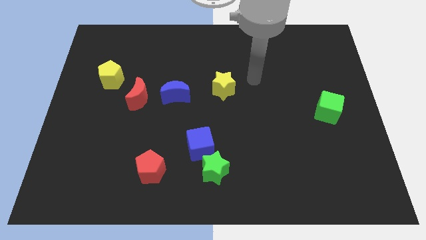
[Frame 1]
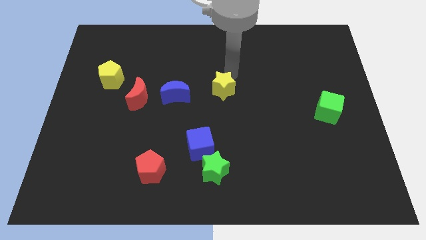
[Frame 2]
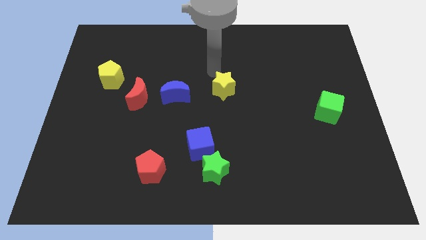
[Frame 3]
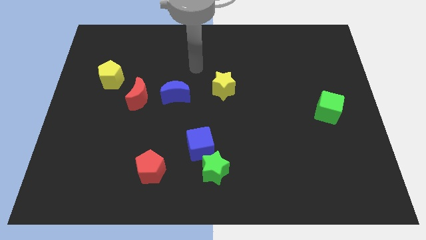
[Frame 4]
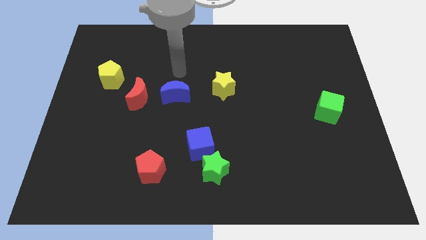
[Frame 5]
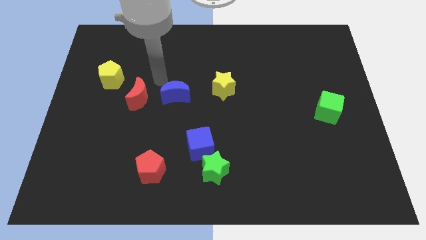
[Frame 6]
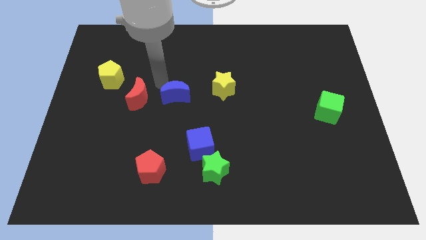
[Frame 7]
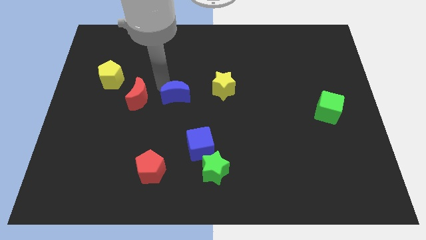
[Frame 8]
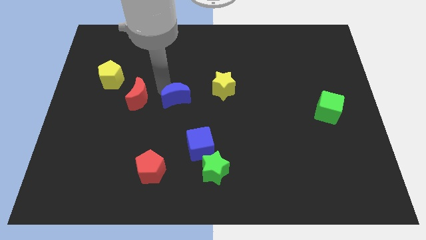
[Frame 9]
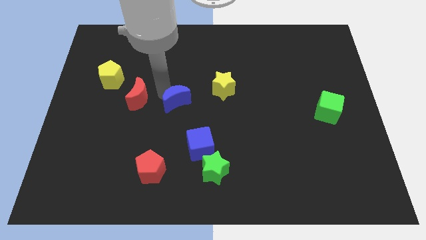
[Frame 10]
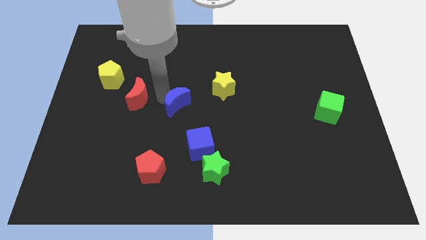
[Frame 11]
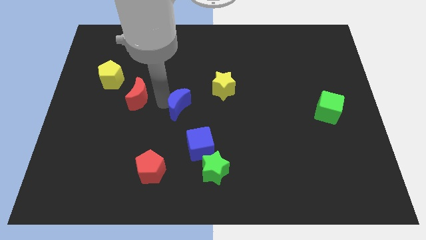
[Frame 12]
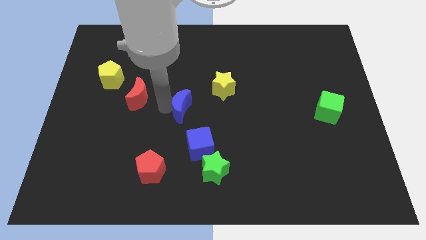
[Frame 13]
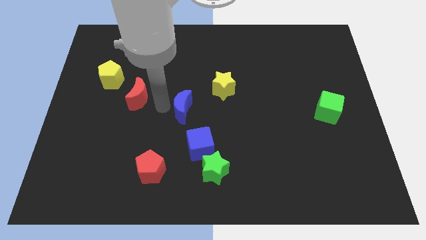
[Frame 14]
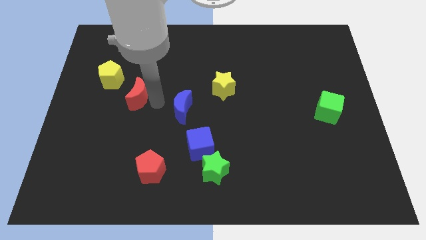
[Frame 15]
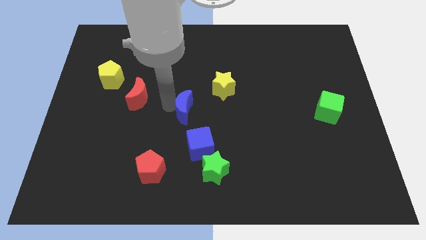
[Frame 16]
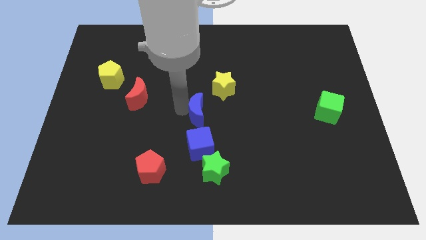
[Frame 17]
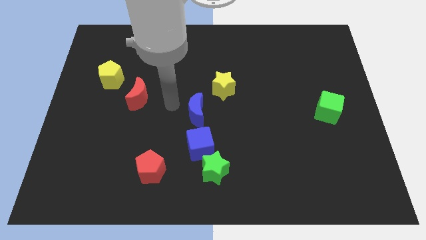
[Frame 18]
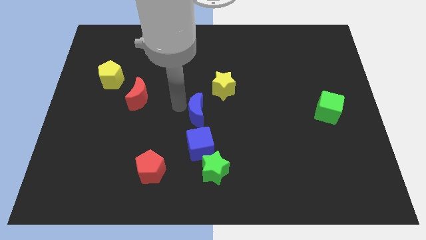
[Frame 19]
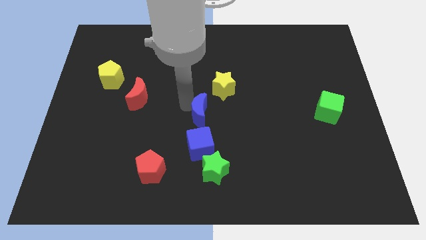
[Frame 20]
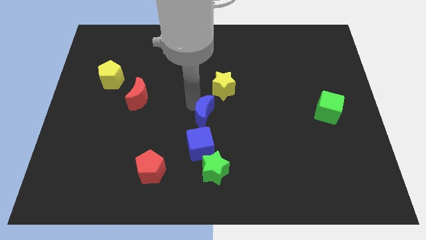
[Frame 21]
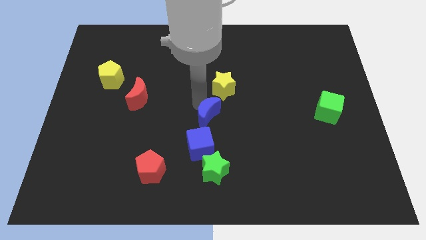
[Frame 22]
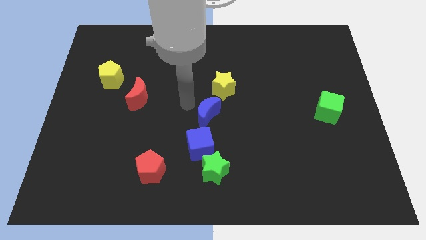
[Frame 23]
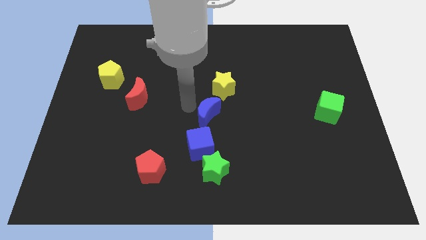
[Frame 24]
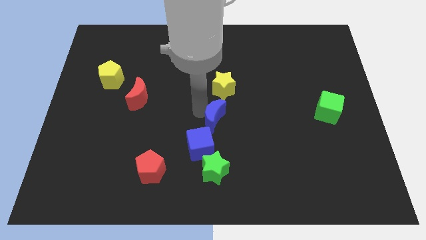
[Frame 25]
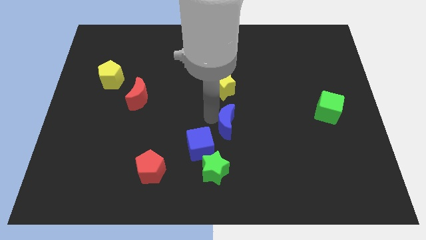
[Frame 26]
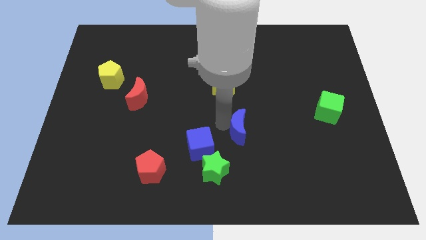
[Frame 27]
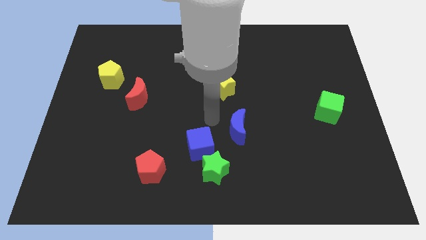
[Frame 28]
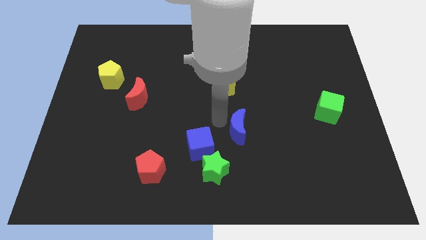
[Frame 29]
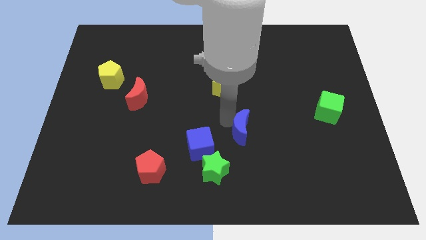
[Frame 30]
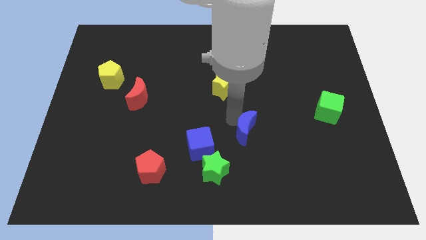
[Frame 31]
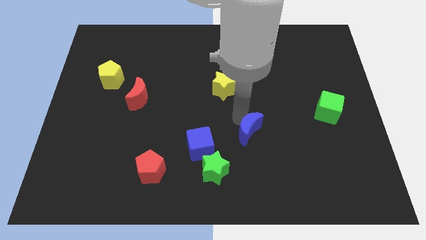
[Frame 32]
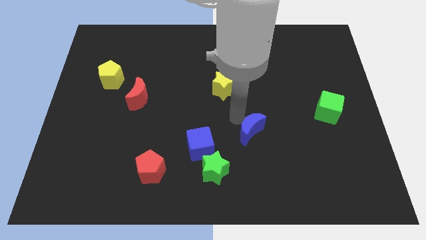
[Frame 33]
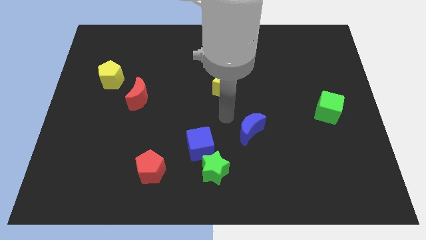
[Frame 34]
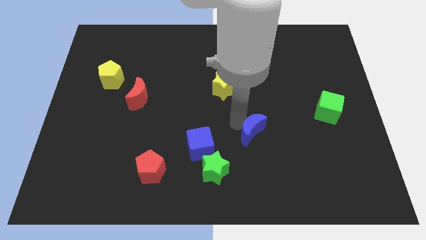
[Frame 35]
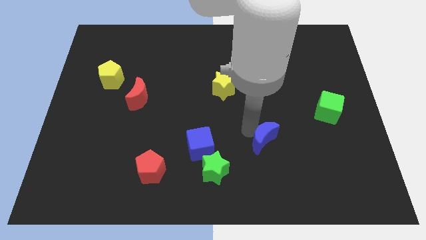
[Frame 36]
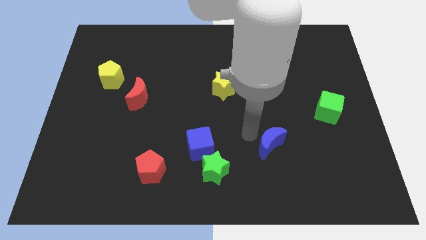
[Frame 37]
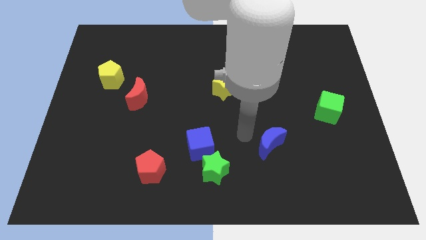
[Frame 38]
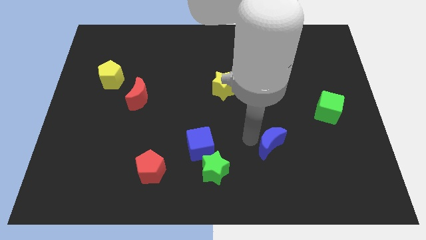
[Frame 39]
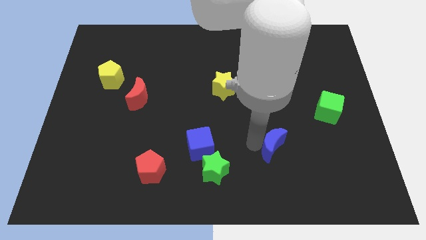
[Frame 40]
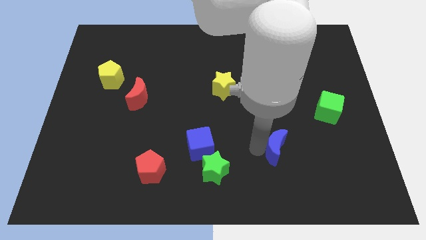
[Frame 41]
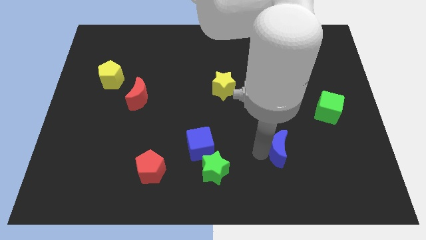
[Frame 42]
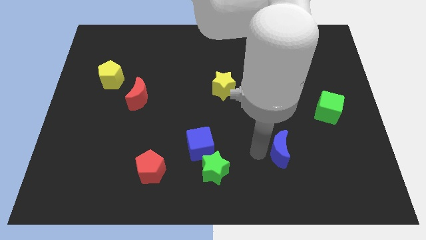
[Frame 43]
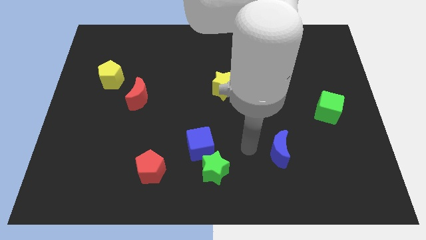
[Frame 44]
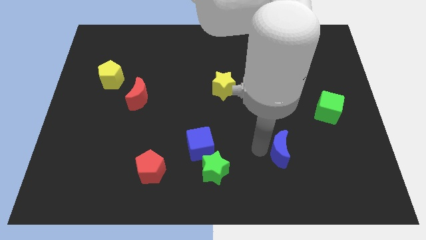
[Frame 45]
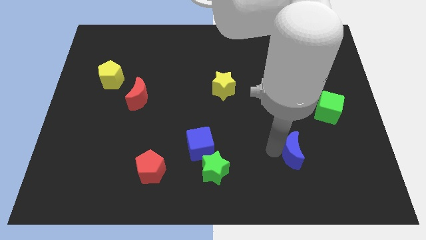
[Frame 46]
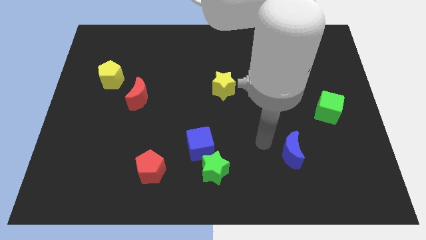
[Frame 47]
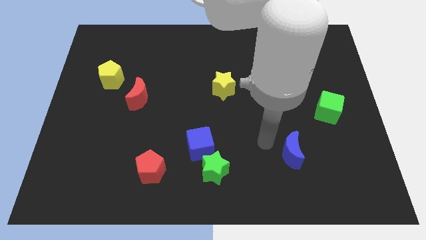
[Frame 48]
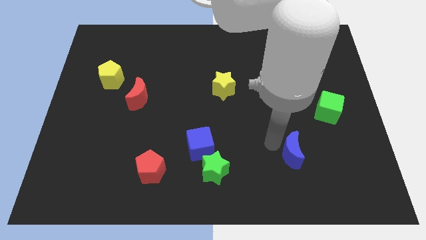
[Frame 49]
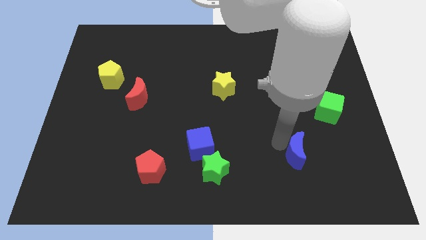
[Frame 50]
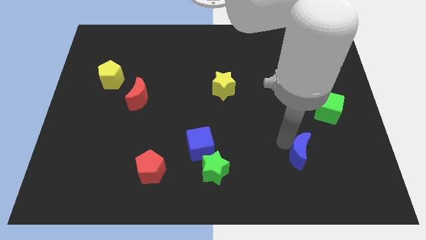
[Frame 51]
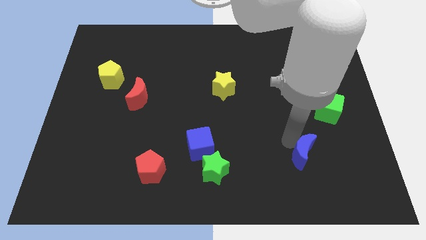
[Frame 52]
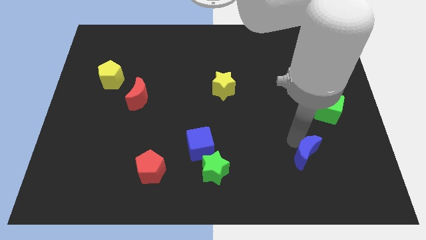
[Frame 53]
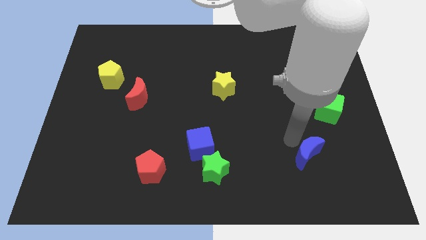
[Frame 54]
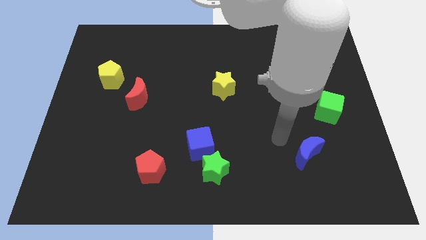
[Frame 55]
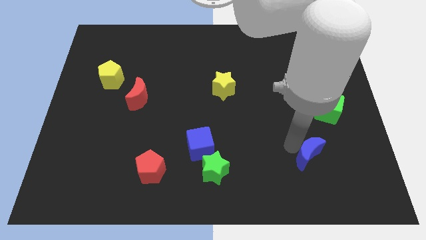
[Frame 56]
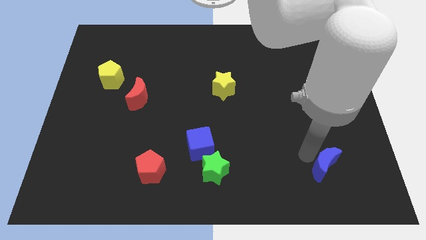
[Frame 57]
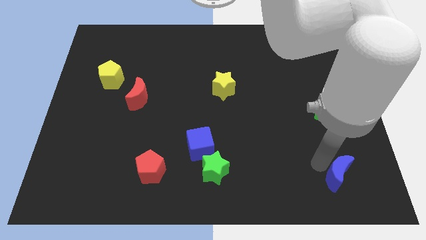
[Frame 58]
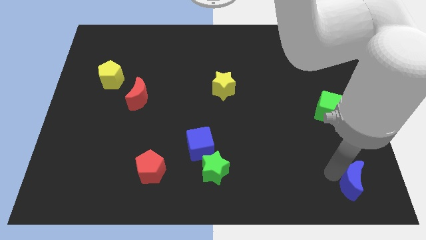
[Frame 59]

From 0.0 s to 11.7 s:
put the blue moon to the bottom right of the board

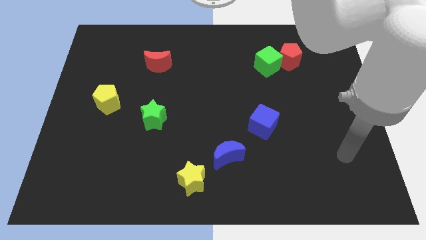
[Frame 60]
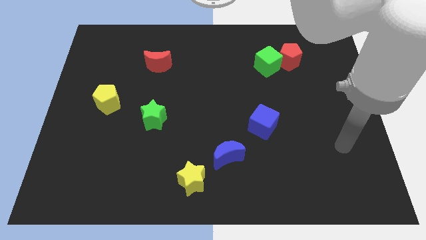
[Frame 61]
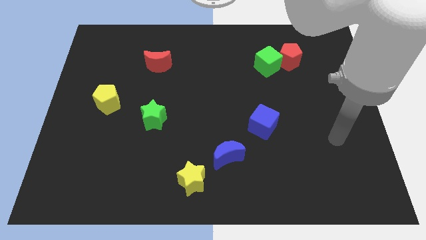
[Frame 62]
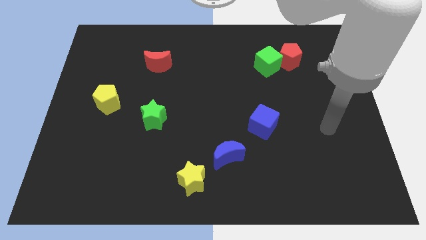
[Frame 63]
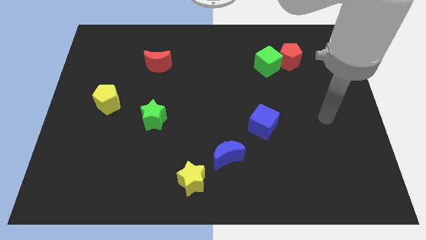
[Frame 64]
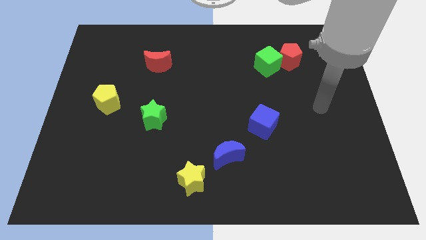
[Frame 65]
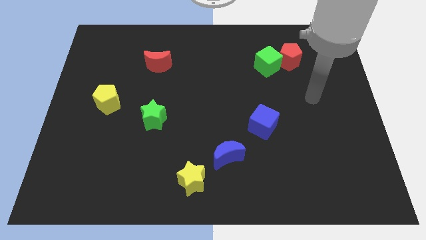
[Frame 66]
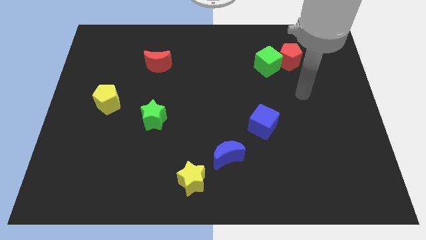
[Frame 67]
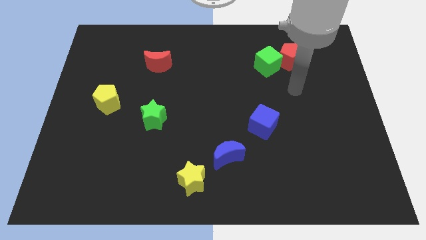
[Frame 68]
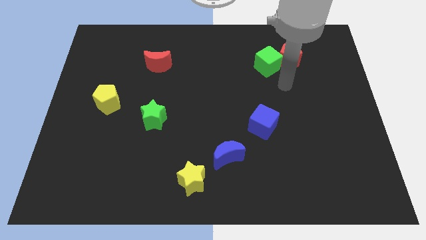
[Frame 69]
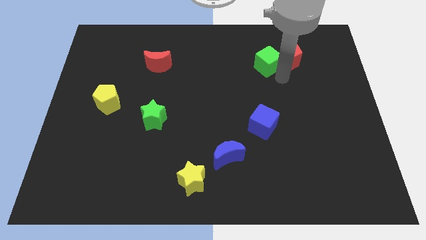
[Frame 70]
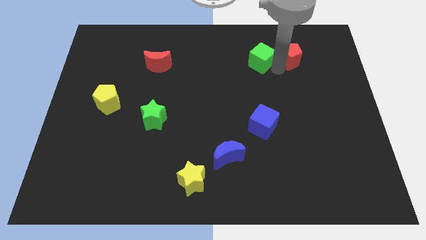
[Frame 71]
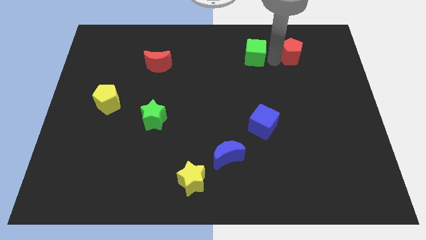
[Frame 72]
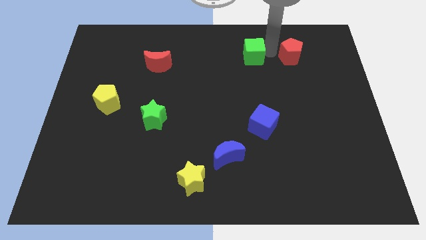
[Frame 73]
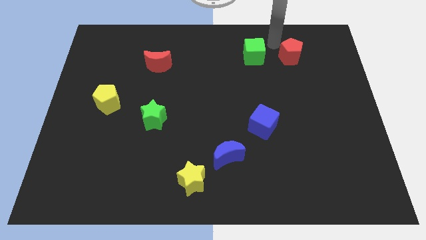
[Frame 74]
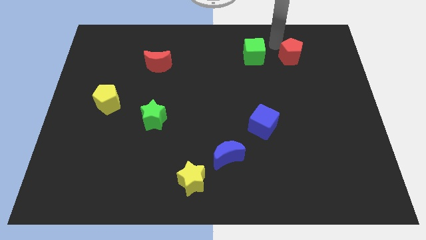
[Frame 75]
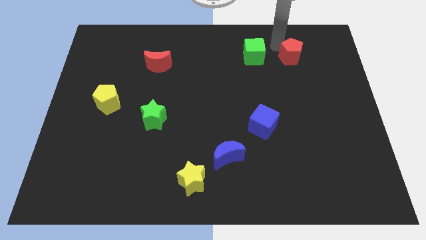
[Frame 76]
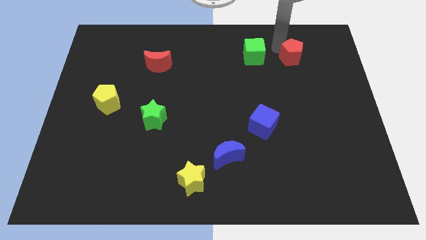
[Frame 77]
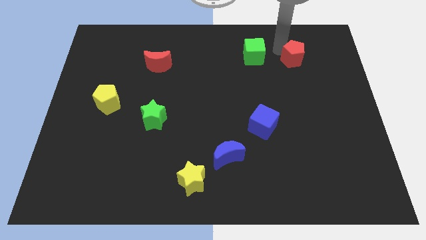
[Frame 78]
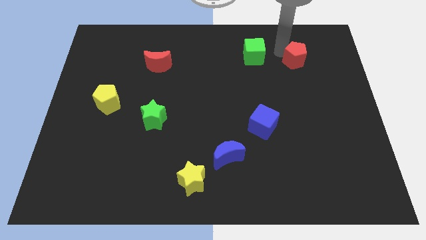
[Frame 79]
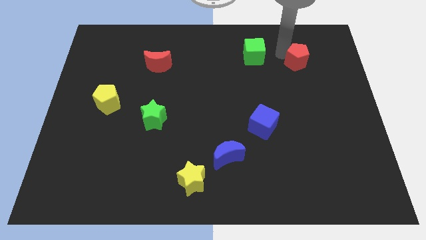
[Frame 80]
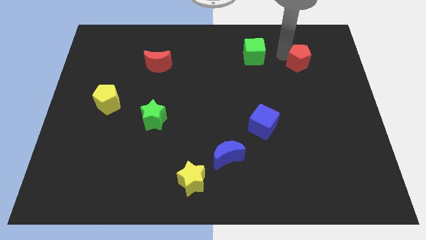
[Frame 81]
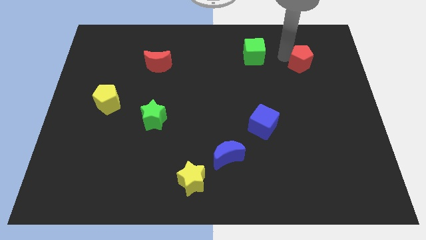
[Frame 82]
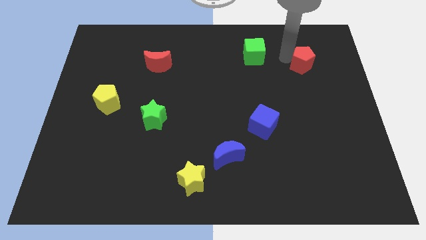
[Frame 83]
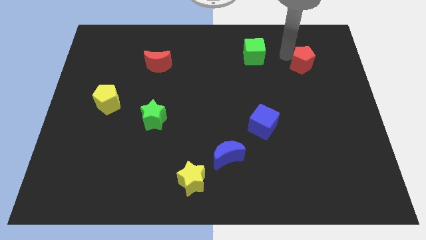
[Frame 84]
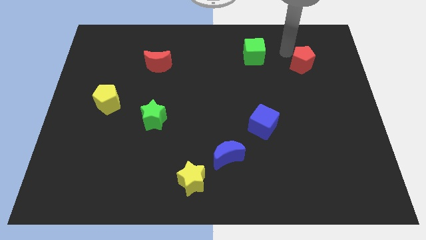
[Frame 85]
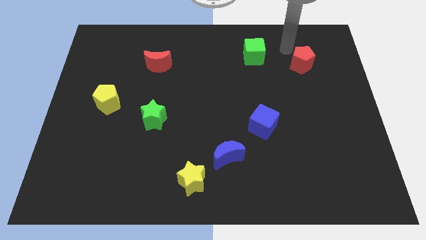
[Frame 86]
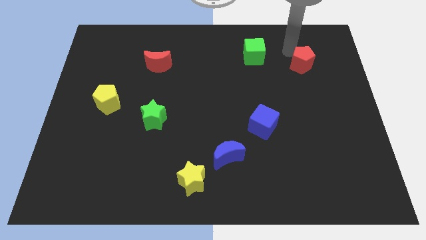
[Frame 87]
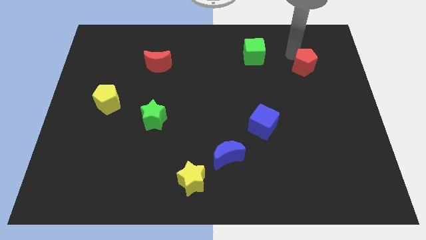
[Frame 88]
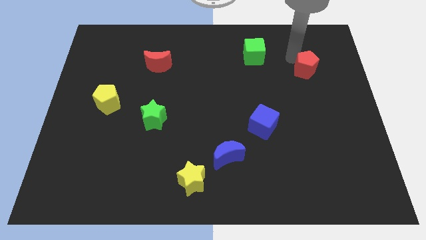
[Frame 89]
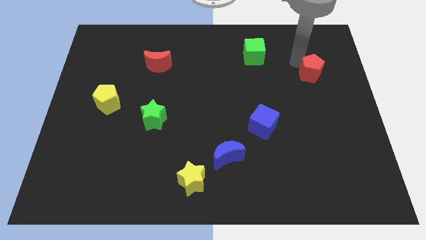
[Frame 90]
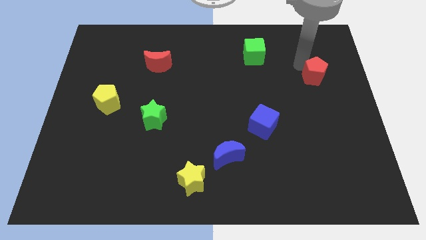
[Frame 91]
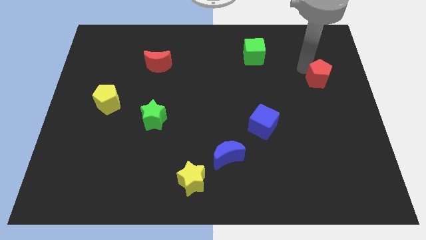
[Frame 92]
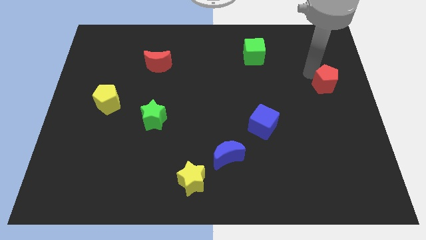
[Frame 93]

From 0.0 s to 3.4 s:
put the red pentagon to the center right
